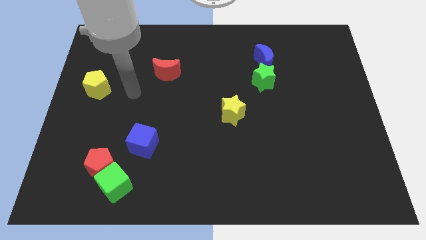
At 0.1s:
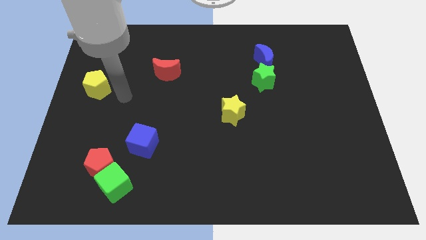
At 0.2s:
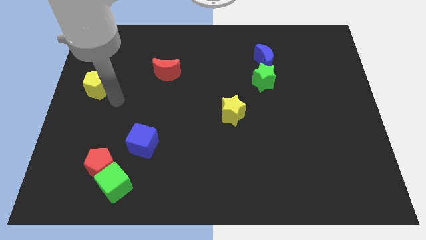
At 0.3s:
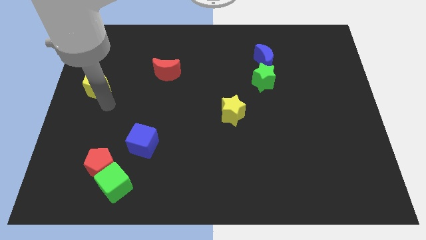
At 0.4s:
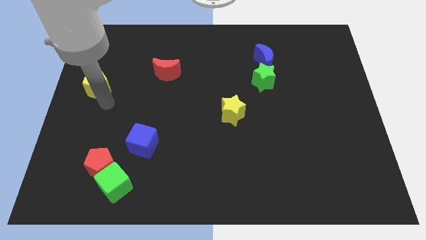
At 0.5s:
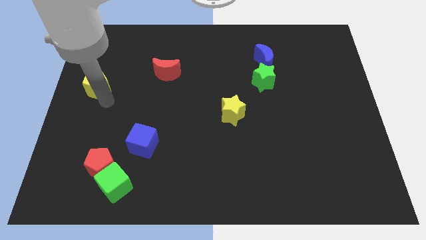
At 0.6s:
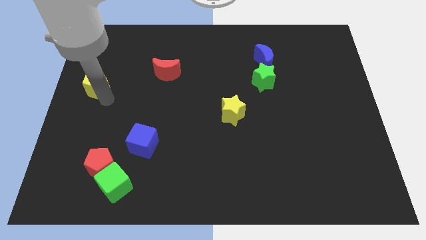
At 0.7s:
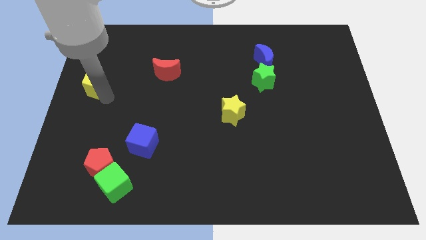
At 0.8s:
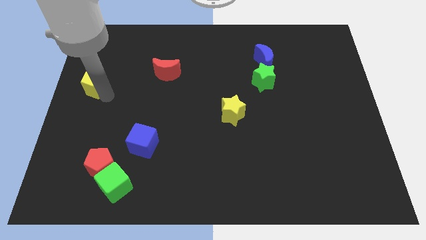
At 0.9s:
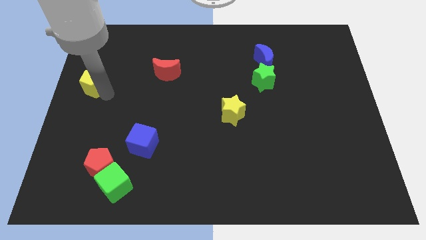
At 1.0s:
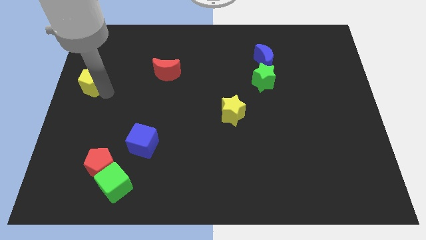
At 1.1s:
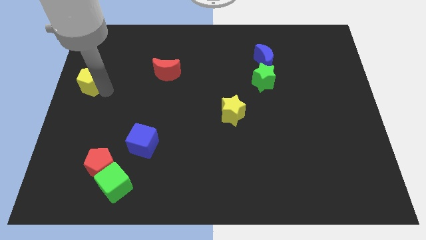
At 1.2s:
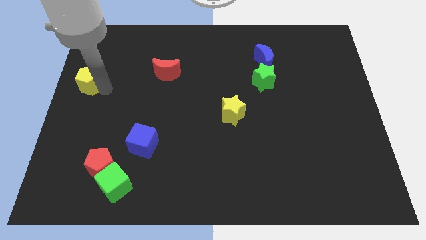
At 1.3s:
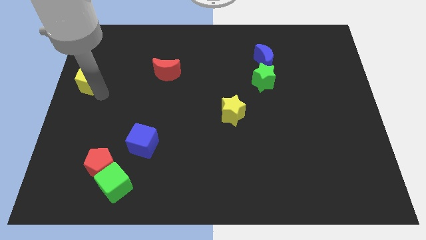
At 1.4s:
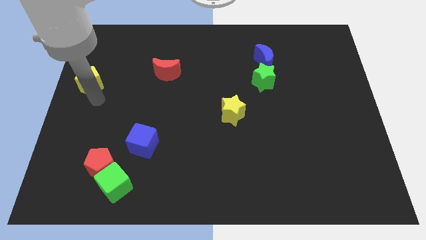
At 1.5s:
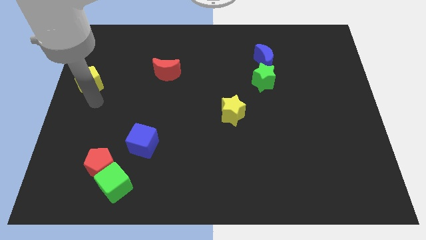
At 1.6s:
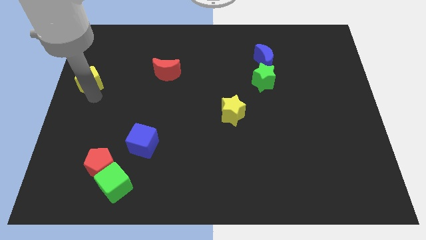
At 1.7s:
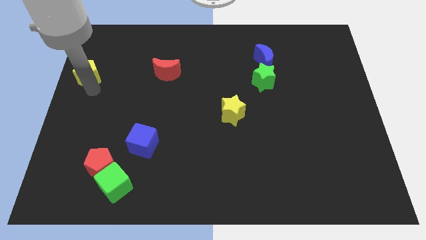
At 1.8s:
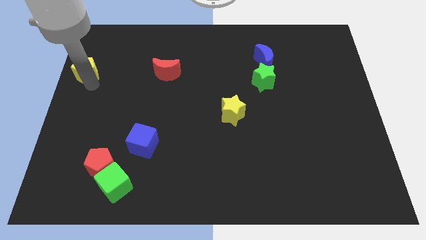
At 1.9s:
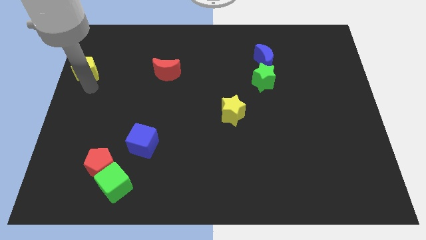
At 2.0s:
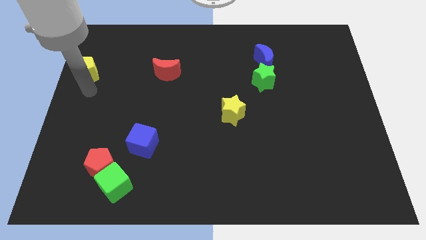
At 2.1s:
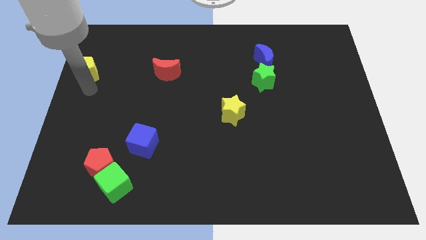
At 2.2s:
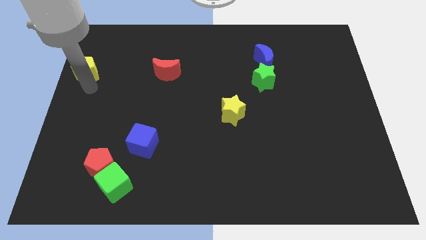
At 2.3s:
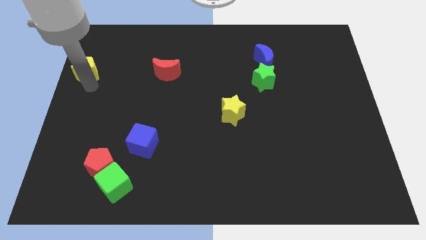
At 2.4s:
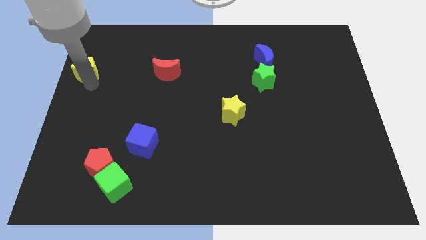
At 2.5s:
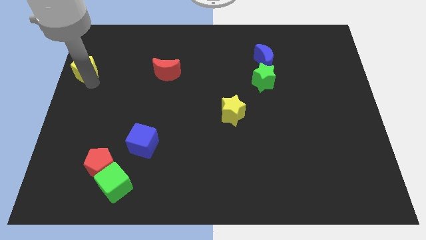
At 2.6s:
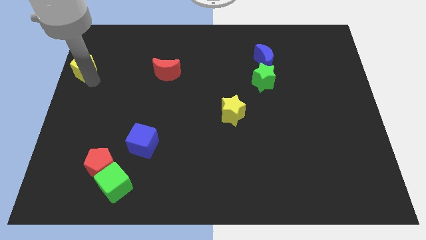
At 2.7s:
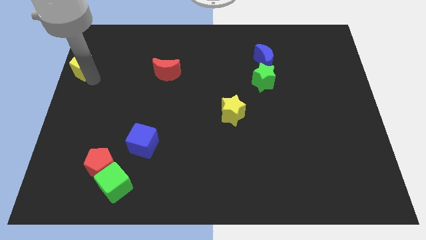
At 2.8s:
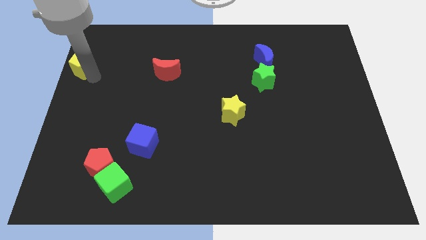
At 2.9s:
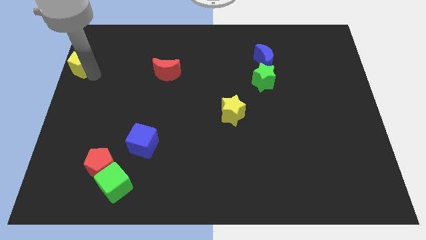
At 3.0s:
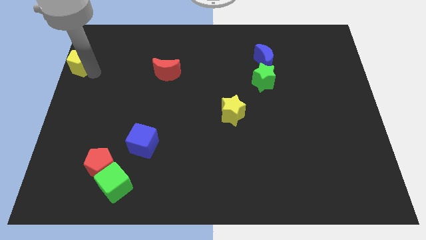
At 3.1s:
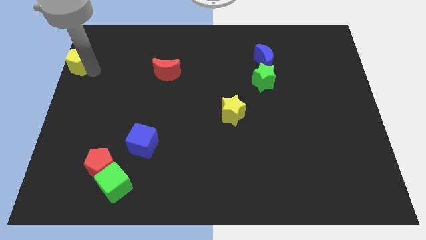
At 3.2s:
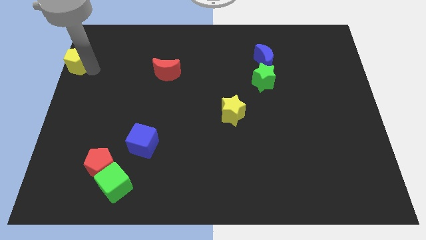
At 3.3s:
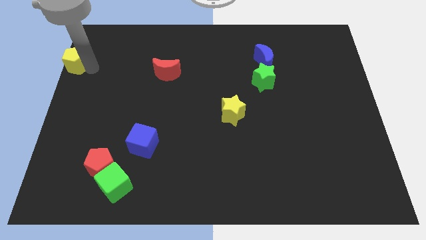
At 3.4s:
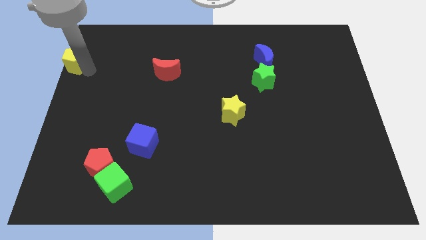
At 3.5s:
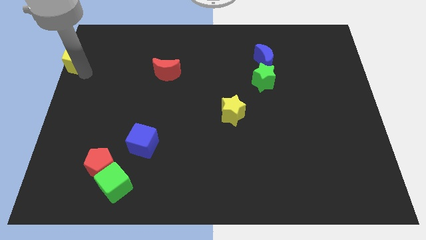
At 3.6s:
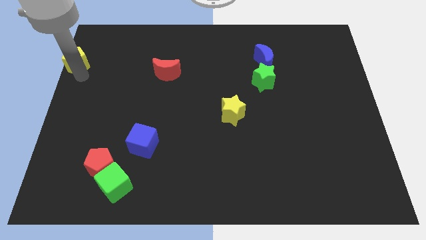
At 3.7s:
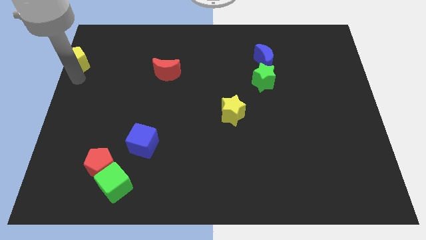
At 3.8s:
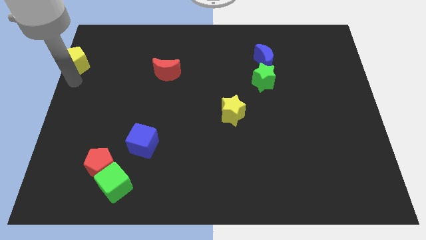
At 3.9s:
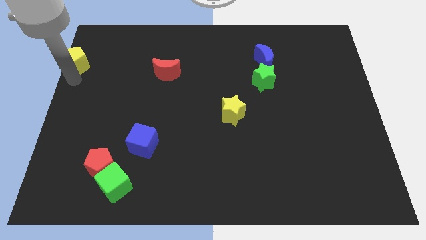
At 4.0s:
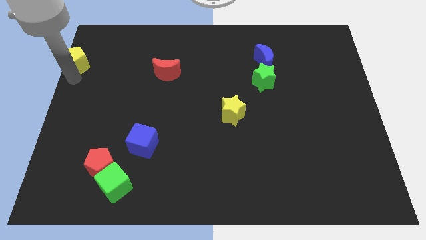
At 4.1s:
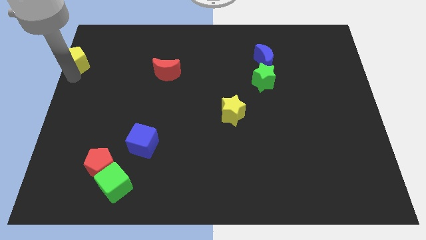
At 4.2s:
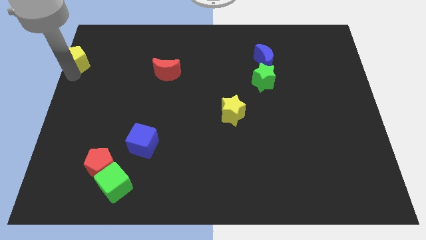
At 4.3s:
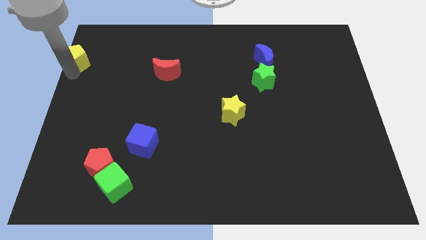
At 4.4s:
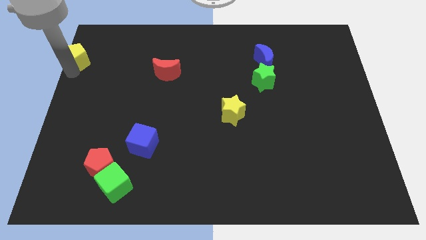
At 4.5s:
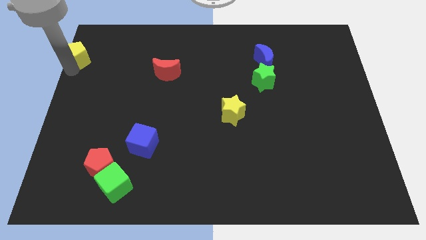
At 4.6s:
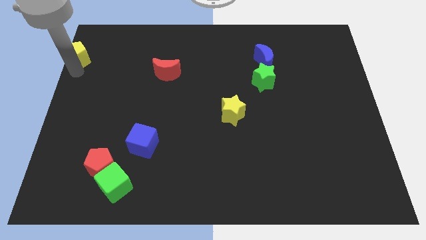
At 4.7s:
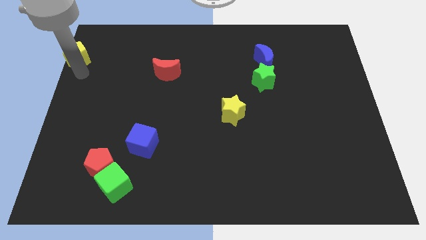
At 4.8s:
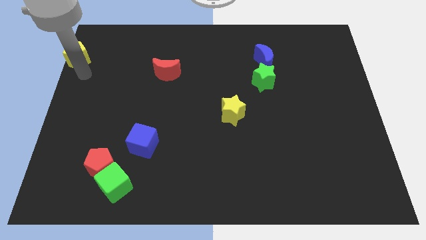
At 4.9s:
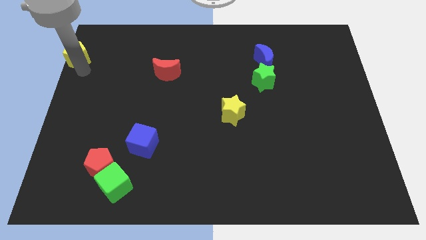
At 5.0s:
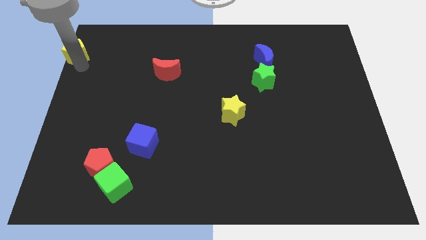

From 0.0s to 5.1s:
move the yellow pentagon to the top left of the board

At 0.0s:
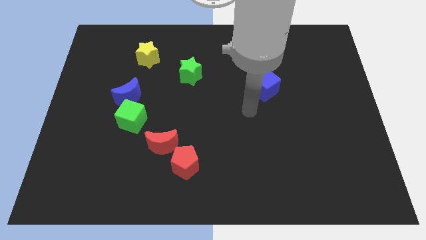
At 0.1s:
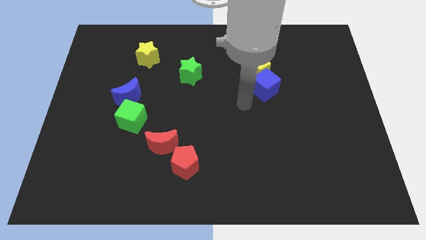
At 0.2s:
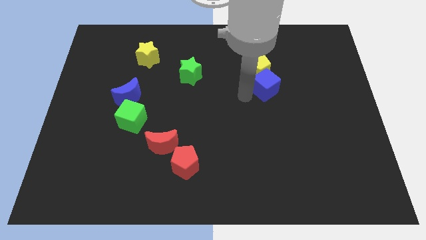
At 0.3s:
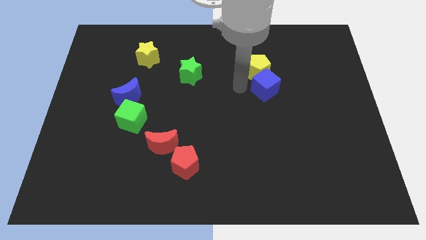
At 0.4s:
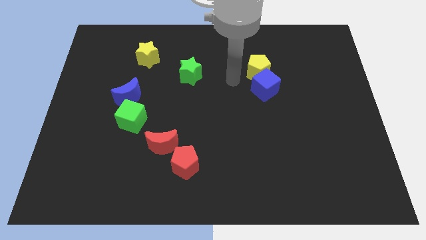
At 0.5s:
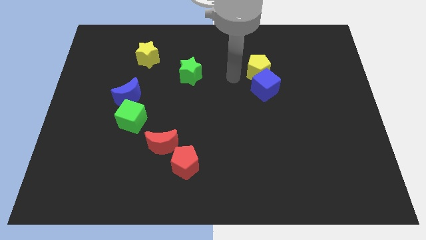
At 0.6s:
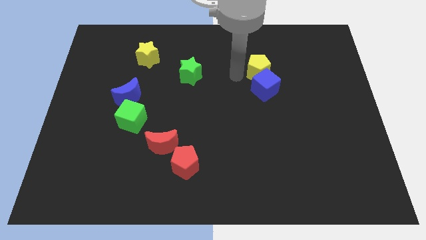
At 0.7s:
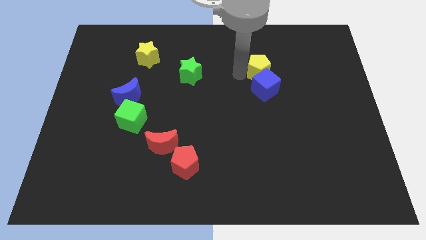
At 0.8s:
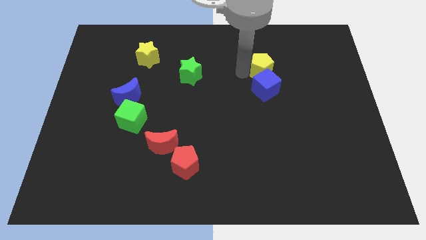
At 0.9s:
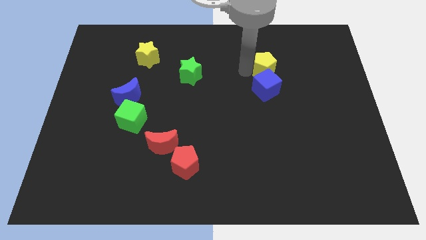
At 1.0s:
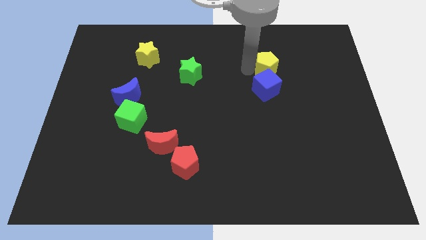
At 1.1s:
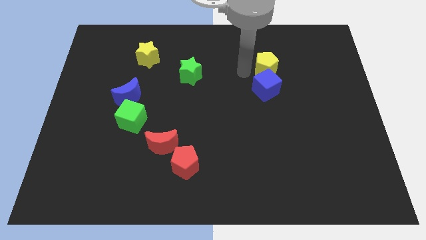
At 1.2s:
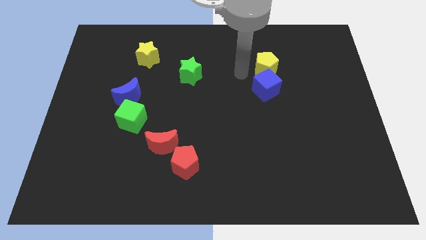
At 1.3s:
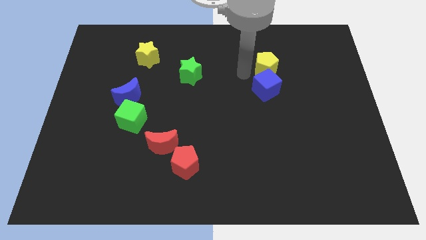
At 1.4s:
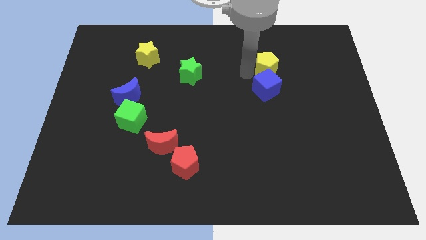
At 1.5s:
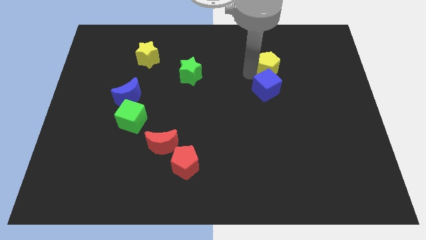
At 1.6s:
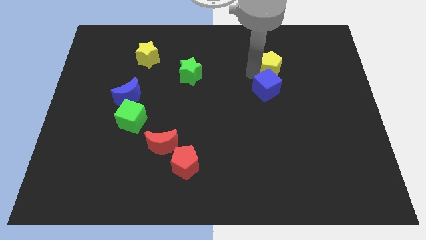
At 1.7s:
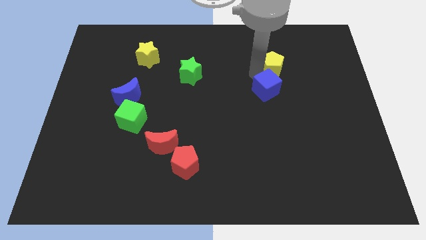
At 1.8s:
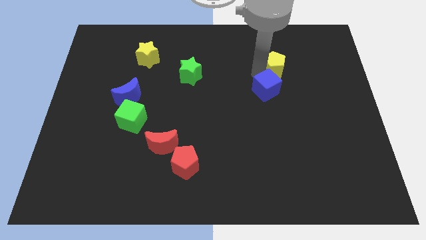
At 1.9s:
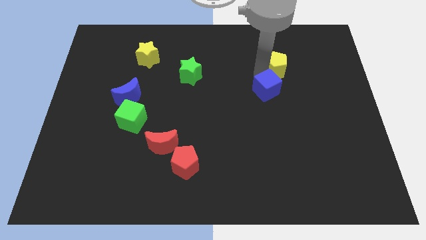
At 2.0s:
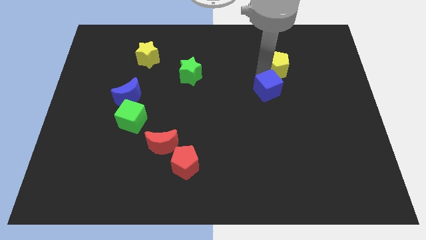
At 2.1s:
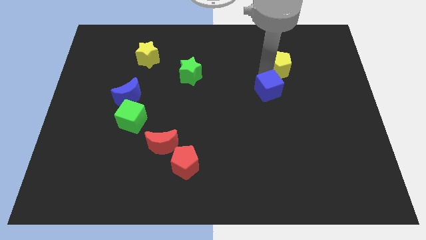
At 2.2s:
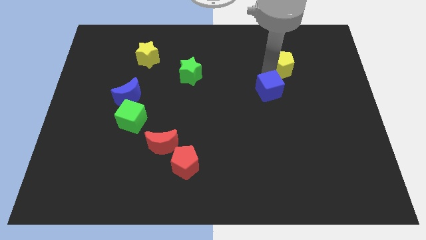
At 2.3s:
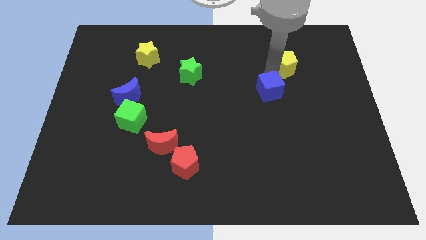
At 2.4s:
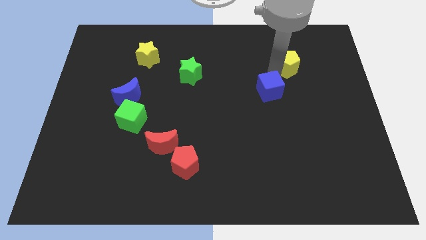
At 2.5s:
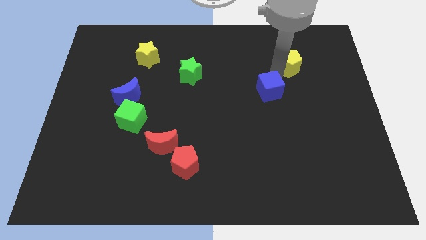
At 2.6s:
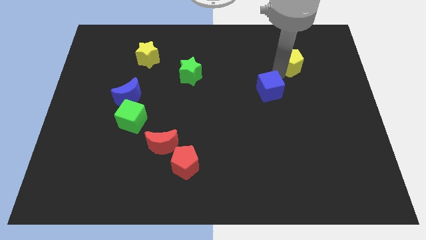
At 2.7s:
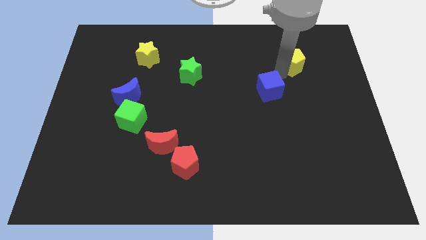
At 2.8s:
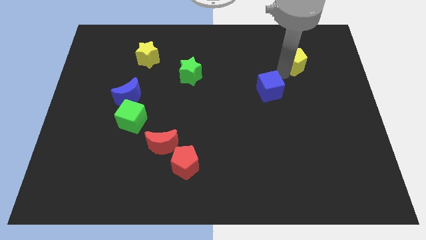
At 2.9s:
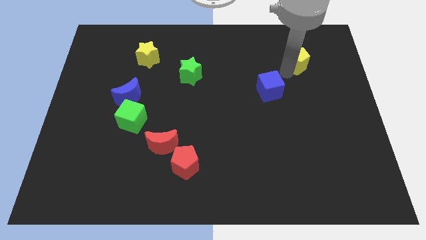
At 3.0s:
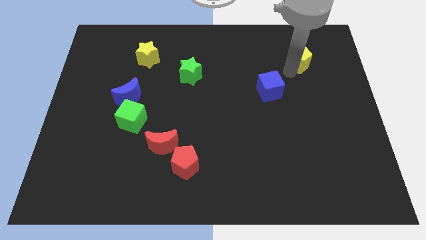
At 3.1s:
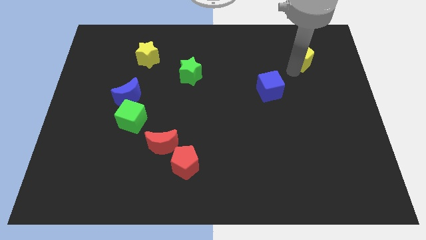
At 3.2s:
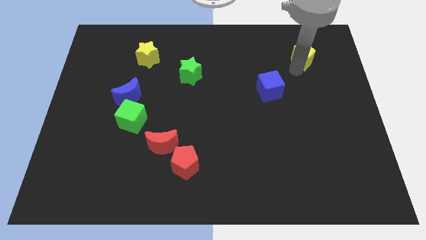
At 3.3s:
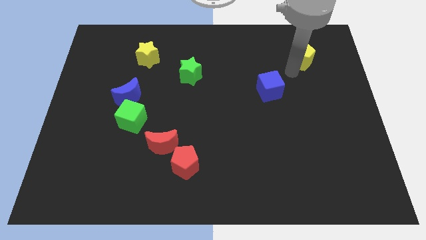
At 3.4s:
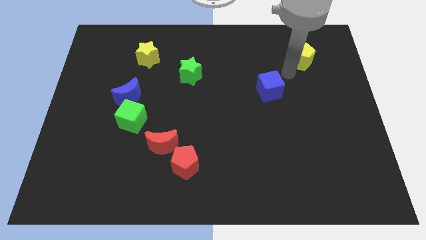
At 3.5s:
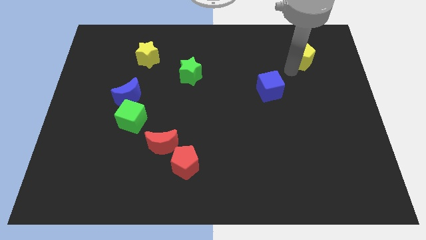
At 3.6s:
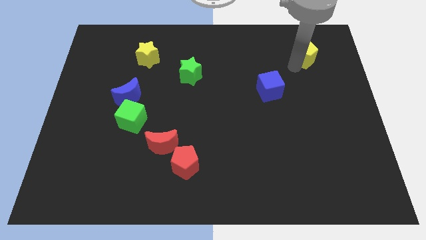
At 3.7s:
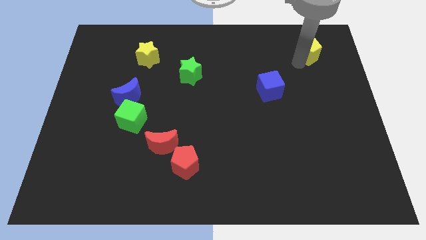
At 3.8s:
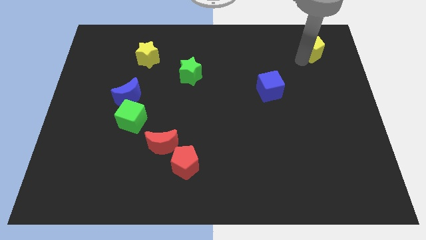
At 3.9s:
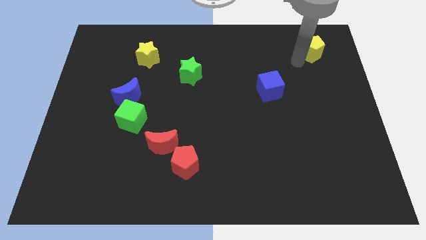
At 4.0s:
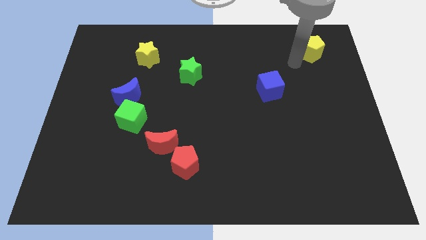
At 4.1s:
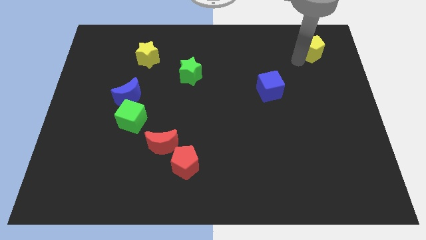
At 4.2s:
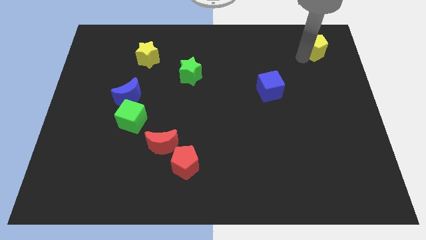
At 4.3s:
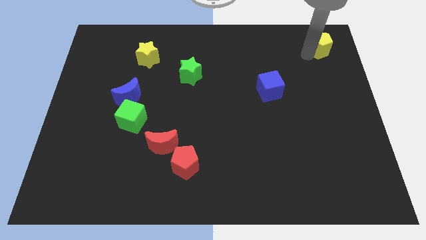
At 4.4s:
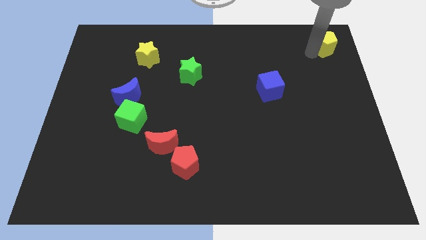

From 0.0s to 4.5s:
move the yellow pentagon to the top right of the board
